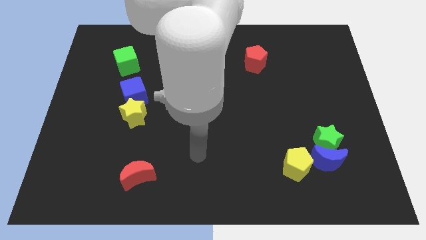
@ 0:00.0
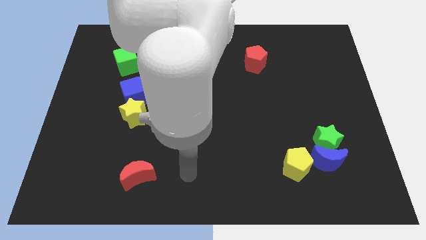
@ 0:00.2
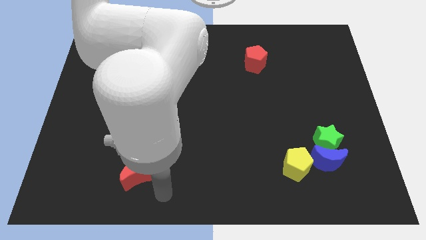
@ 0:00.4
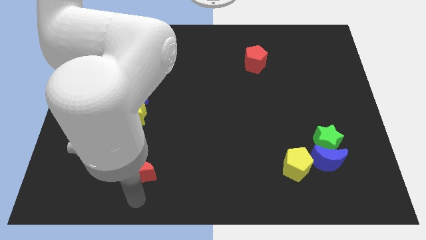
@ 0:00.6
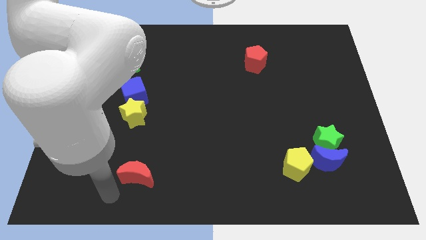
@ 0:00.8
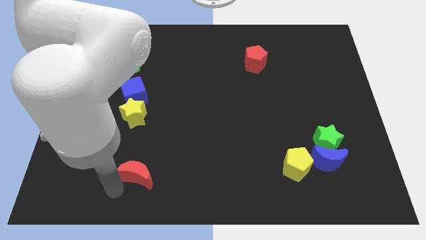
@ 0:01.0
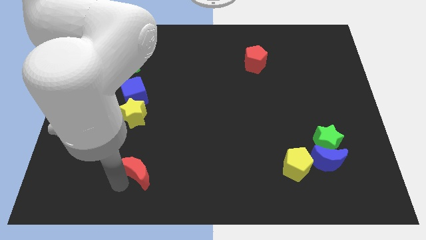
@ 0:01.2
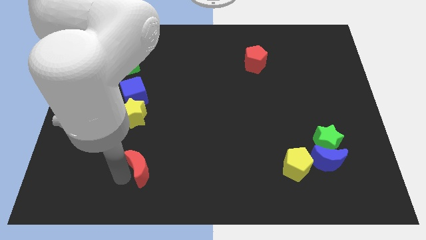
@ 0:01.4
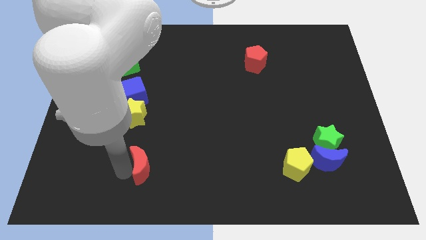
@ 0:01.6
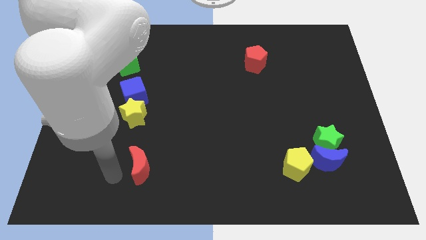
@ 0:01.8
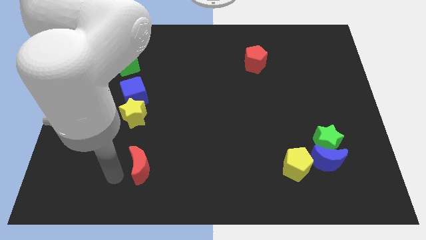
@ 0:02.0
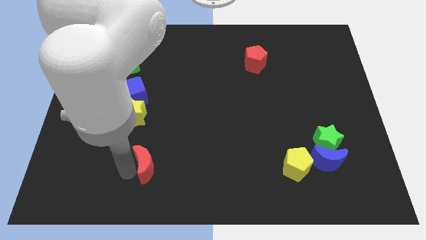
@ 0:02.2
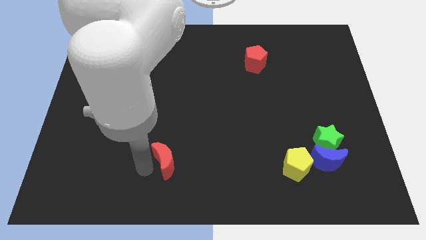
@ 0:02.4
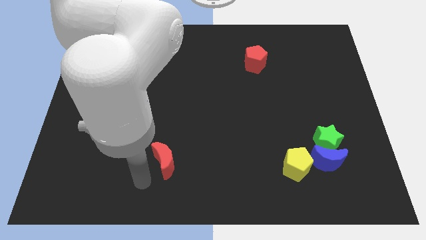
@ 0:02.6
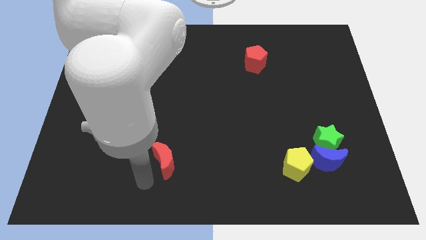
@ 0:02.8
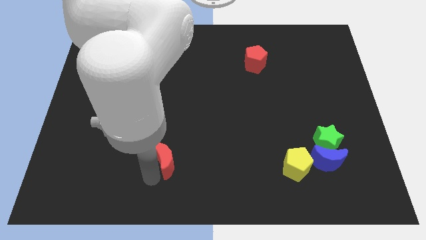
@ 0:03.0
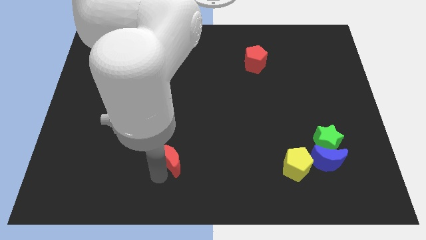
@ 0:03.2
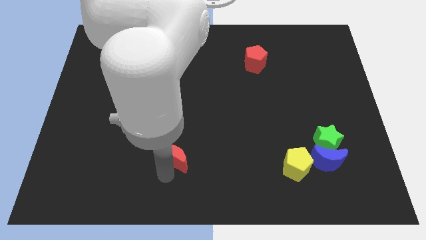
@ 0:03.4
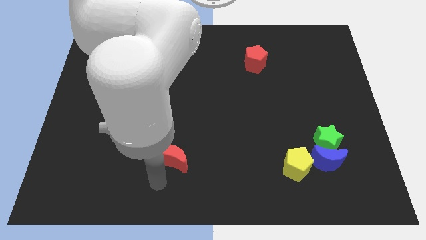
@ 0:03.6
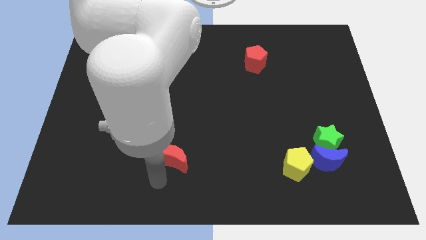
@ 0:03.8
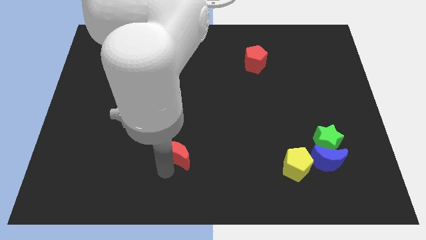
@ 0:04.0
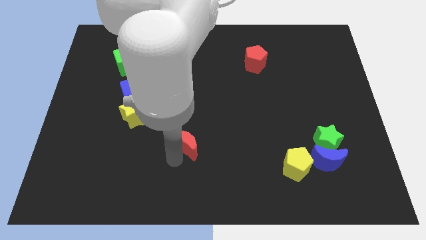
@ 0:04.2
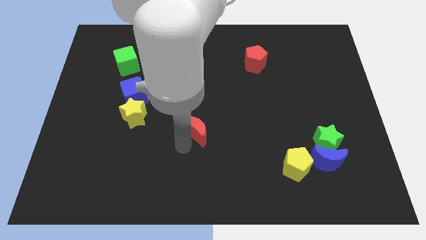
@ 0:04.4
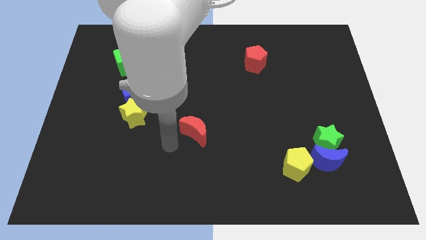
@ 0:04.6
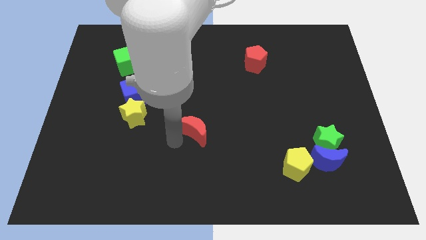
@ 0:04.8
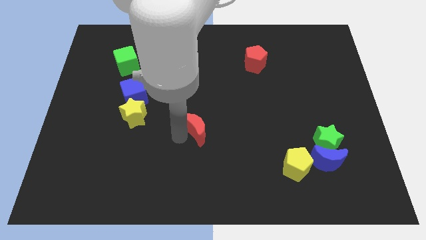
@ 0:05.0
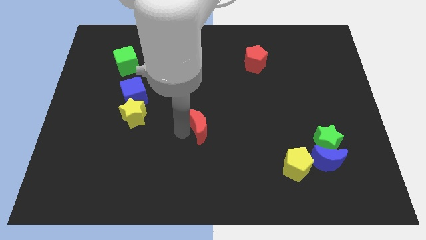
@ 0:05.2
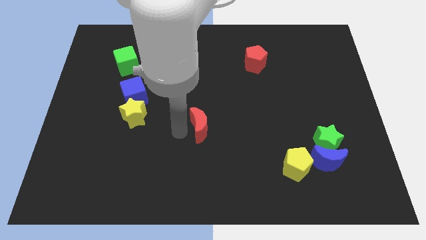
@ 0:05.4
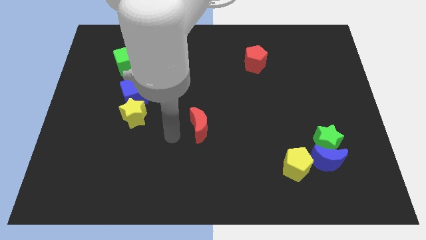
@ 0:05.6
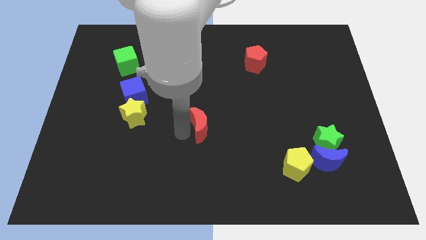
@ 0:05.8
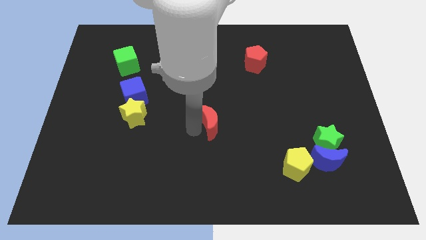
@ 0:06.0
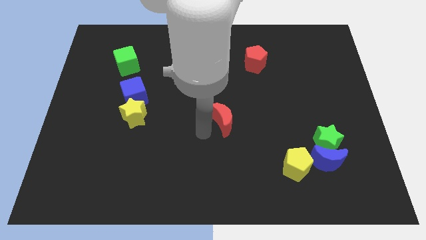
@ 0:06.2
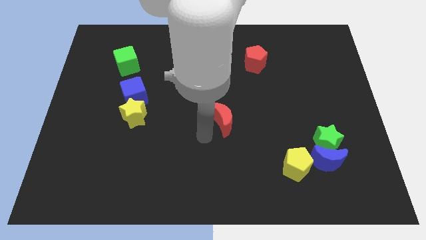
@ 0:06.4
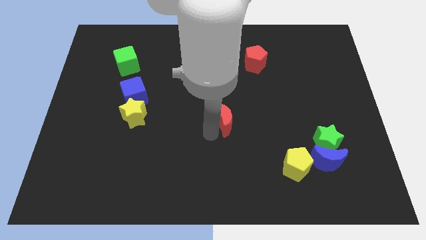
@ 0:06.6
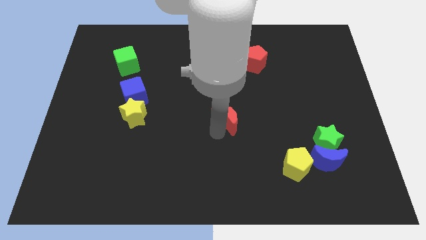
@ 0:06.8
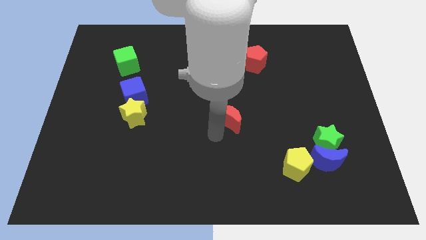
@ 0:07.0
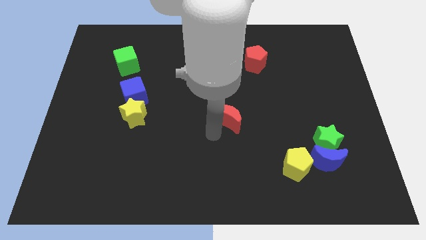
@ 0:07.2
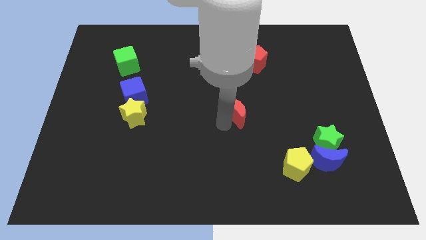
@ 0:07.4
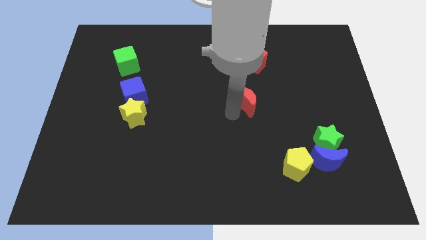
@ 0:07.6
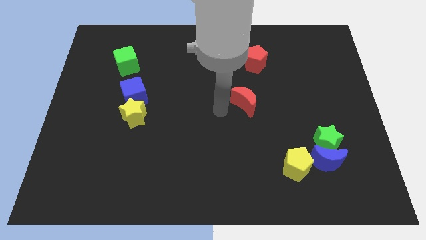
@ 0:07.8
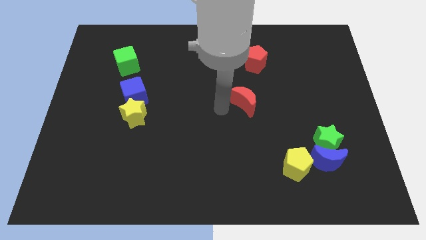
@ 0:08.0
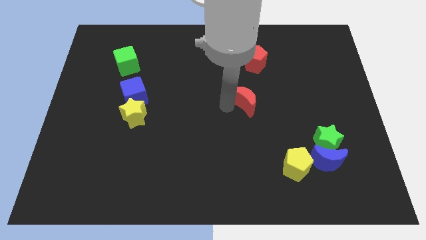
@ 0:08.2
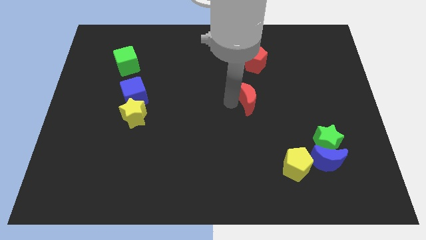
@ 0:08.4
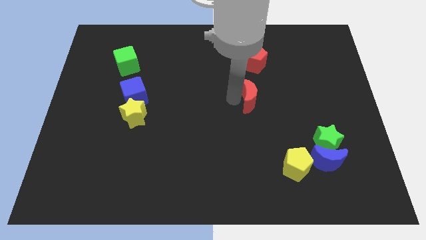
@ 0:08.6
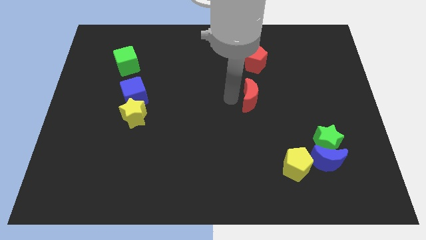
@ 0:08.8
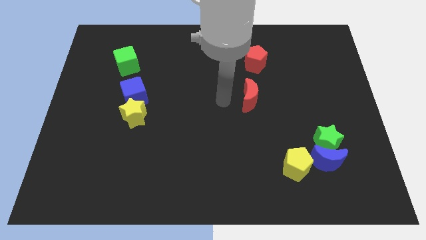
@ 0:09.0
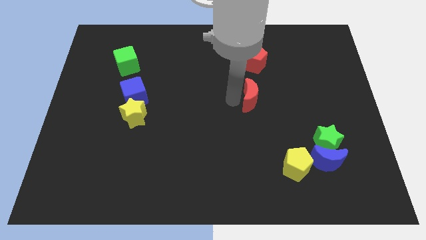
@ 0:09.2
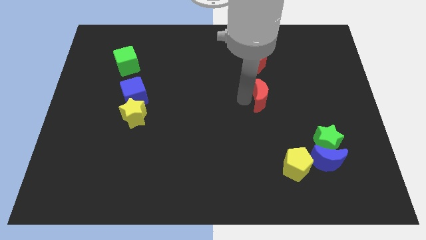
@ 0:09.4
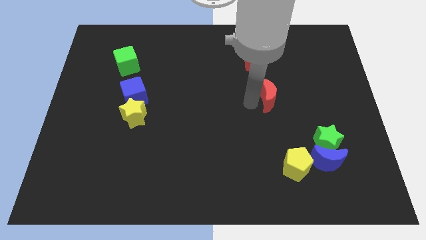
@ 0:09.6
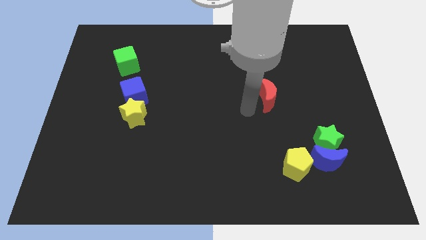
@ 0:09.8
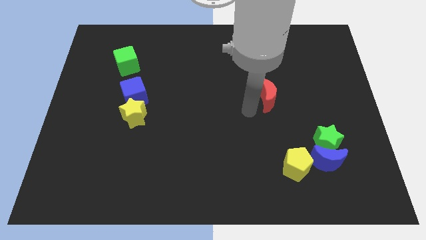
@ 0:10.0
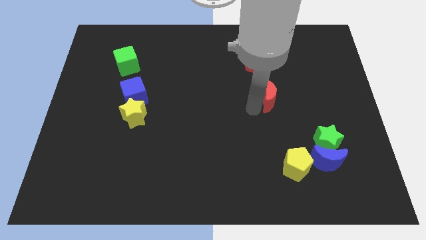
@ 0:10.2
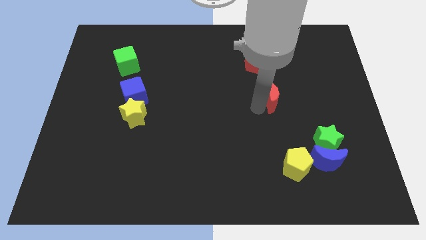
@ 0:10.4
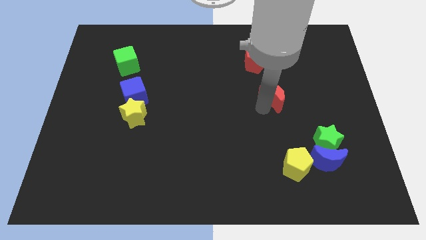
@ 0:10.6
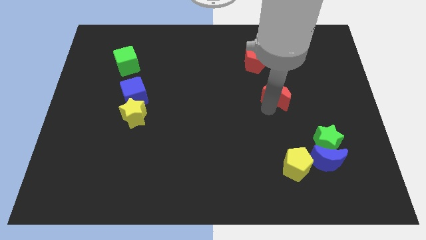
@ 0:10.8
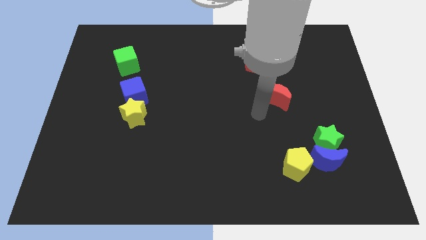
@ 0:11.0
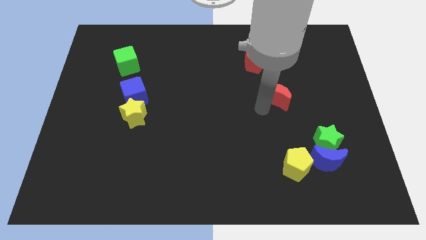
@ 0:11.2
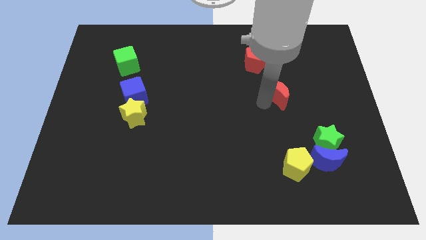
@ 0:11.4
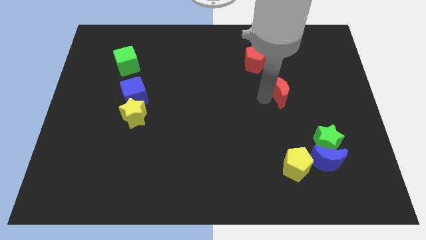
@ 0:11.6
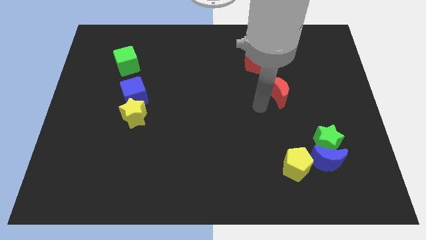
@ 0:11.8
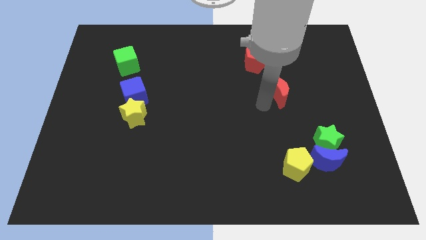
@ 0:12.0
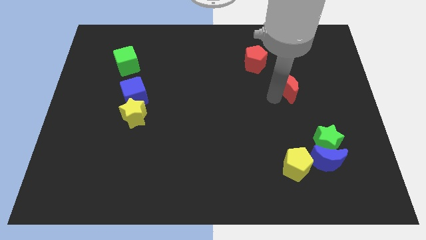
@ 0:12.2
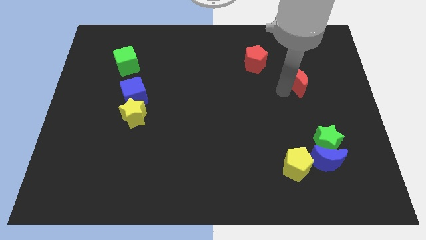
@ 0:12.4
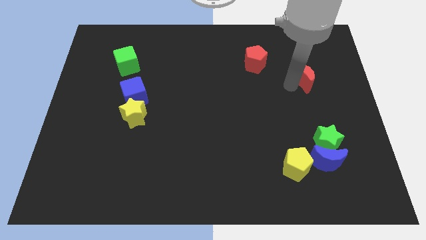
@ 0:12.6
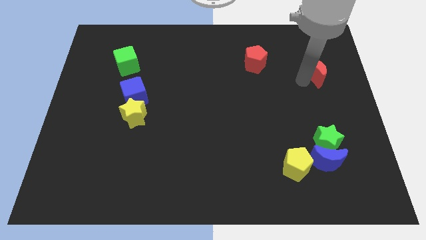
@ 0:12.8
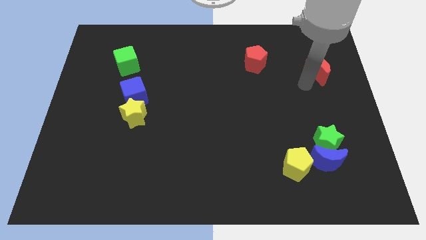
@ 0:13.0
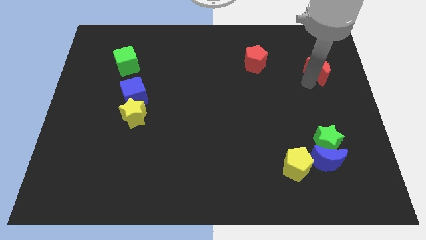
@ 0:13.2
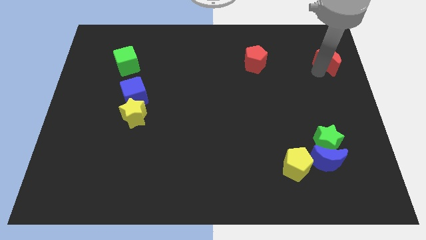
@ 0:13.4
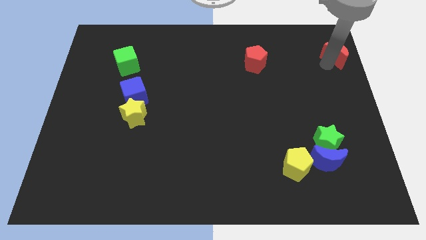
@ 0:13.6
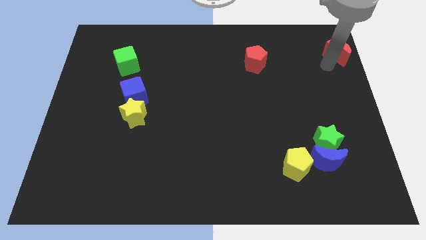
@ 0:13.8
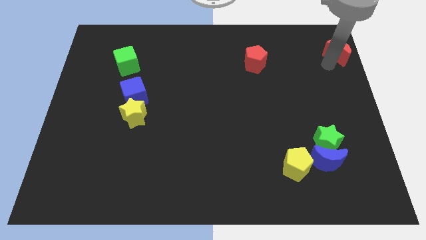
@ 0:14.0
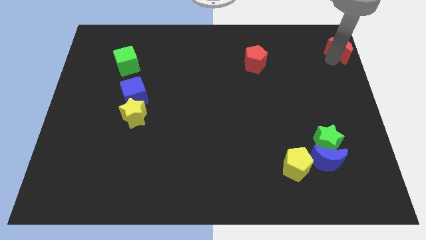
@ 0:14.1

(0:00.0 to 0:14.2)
push the red moon to the upper right corner
